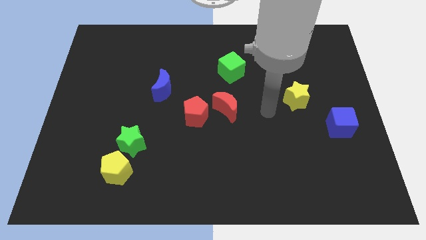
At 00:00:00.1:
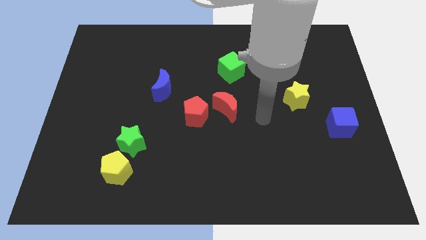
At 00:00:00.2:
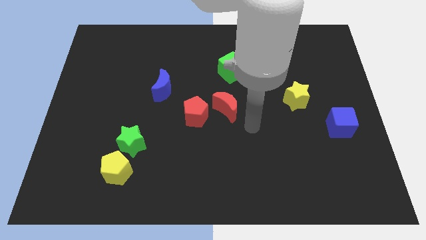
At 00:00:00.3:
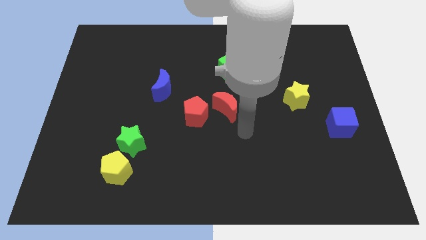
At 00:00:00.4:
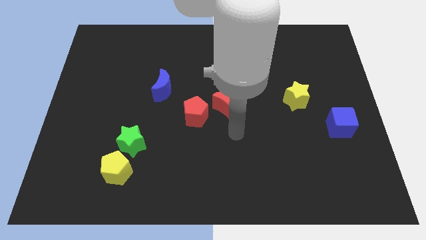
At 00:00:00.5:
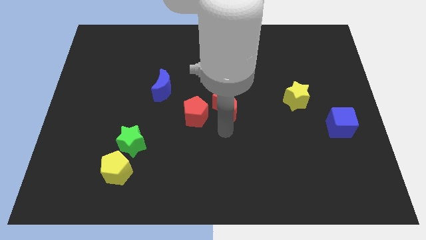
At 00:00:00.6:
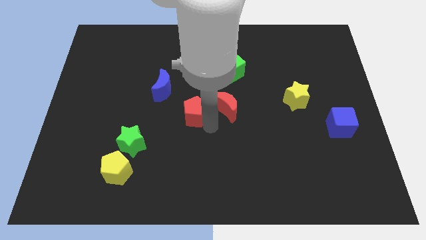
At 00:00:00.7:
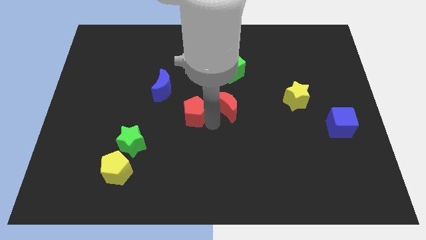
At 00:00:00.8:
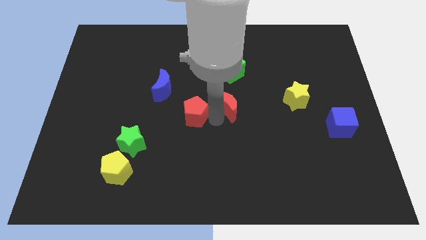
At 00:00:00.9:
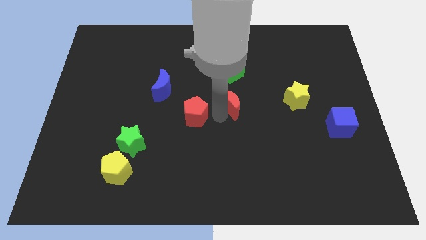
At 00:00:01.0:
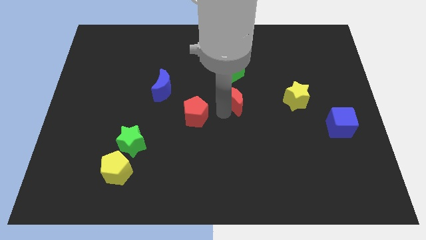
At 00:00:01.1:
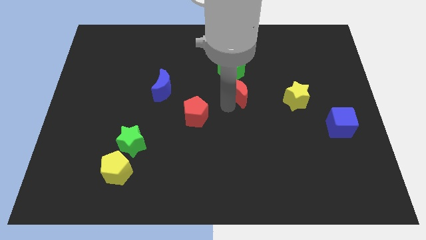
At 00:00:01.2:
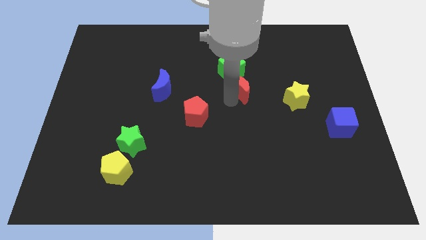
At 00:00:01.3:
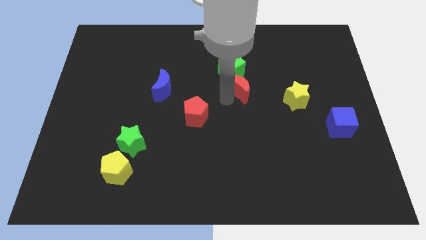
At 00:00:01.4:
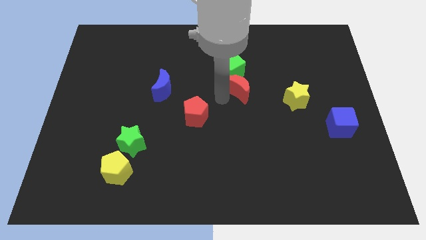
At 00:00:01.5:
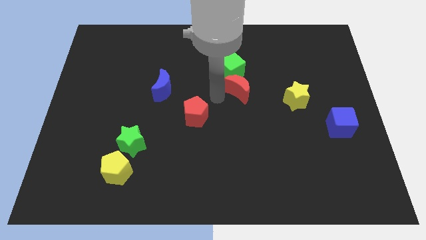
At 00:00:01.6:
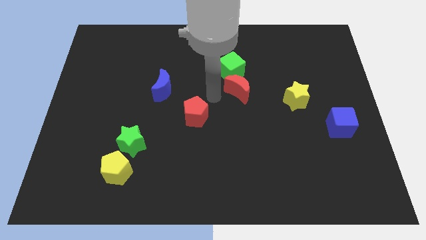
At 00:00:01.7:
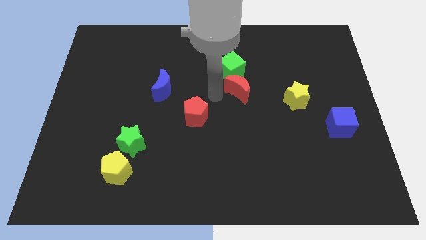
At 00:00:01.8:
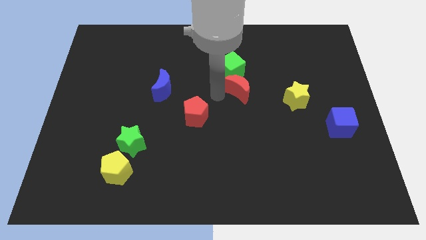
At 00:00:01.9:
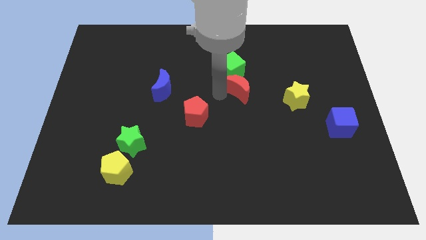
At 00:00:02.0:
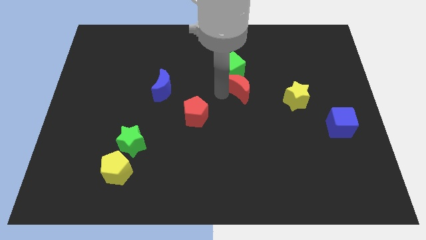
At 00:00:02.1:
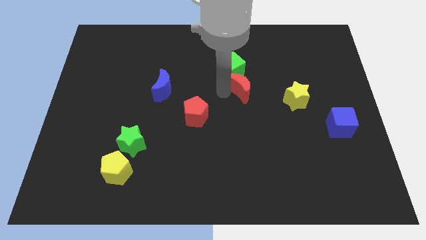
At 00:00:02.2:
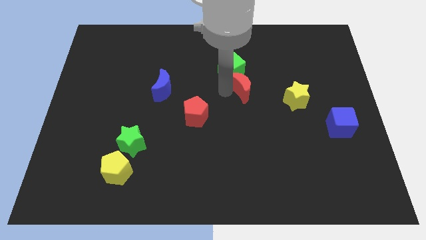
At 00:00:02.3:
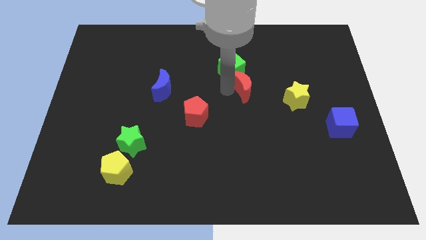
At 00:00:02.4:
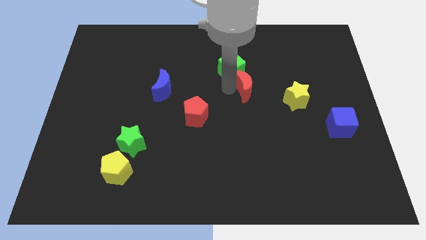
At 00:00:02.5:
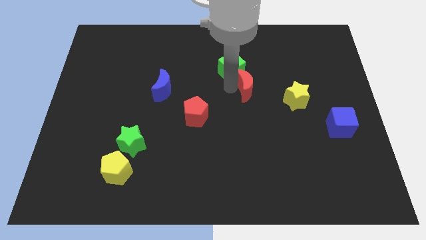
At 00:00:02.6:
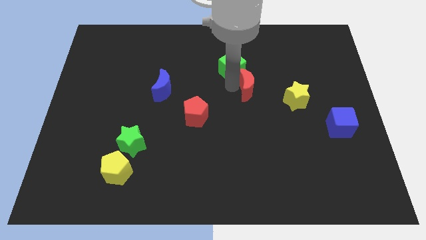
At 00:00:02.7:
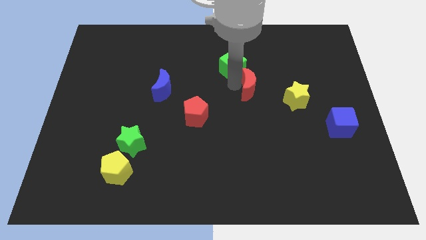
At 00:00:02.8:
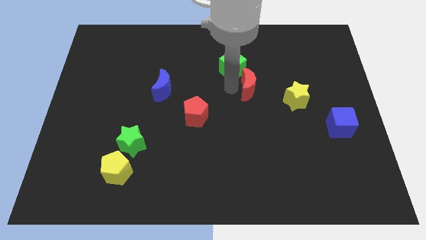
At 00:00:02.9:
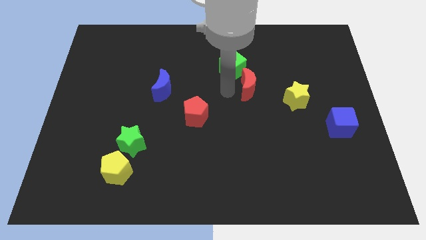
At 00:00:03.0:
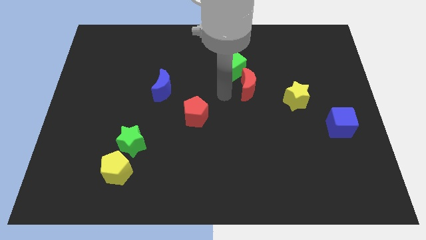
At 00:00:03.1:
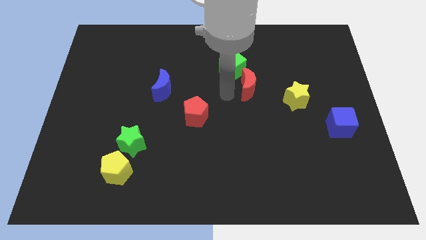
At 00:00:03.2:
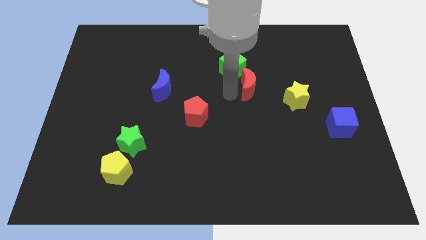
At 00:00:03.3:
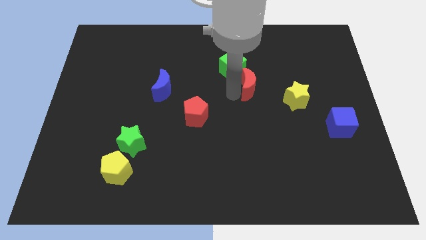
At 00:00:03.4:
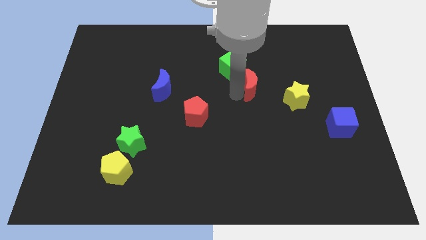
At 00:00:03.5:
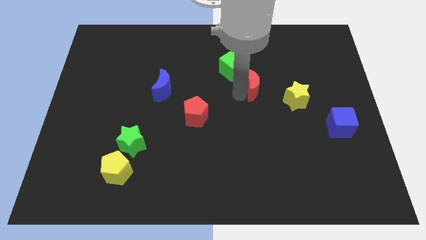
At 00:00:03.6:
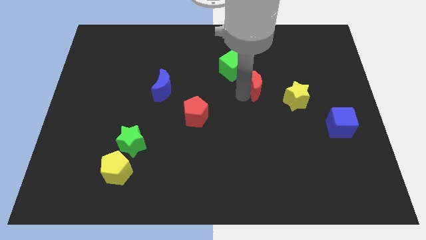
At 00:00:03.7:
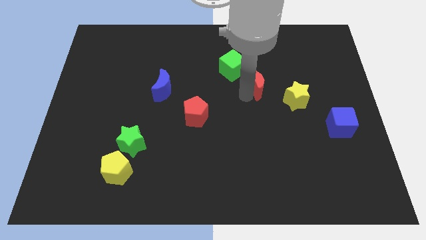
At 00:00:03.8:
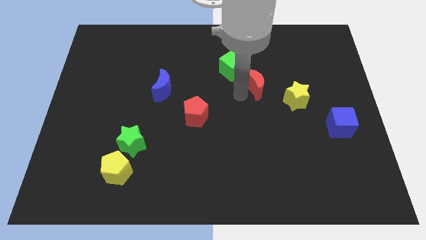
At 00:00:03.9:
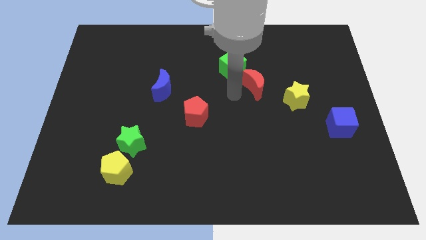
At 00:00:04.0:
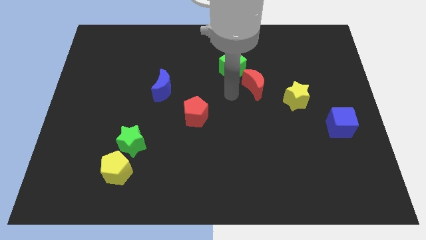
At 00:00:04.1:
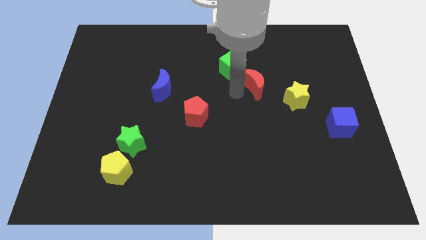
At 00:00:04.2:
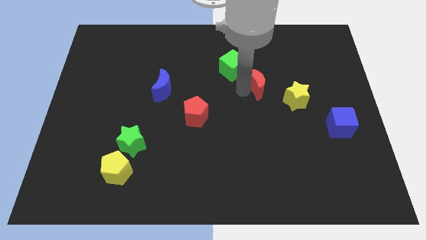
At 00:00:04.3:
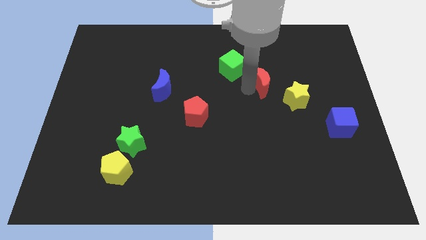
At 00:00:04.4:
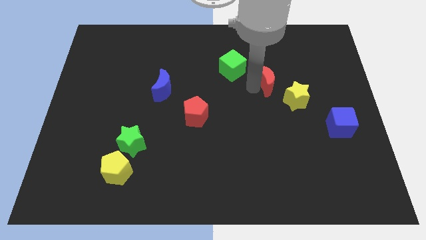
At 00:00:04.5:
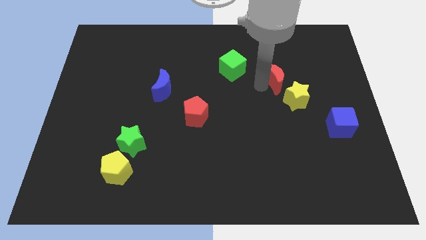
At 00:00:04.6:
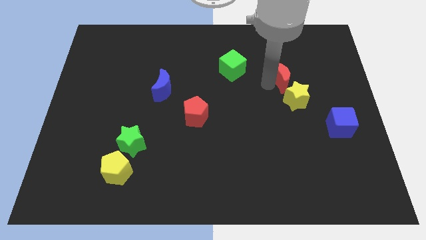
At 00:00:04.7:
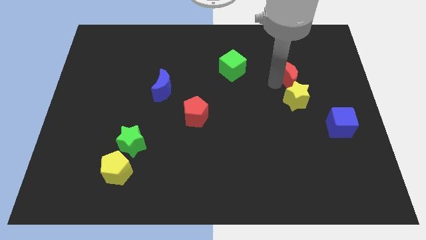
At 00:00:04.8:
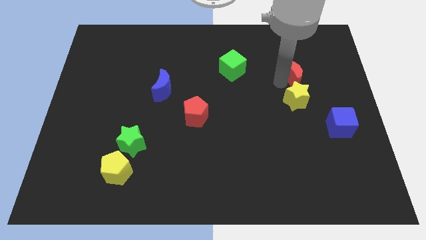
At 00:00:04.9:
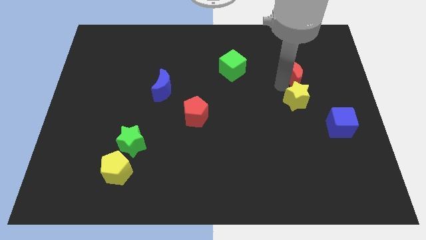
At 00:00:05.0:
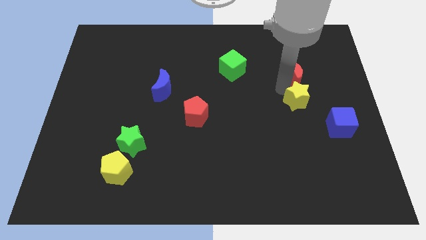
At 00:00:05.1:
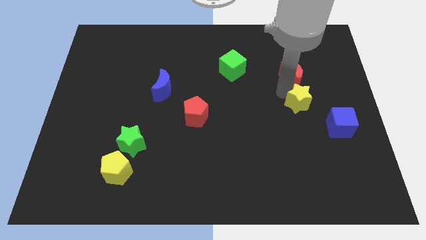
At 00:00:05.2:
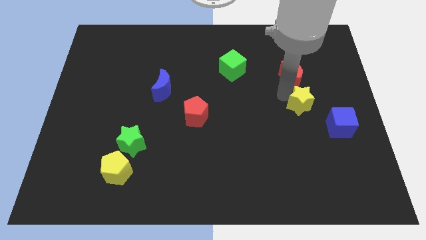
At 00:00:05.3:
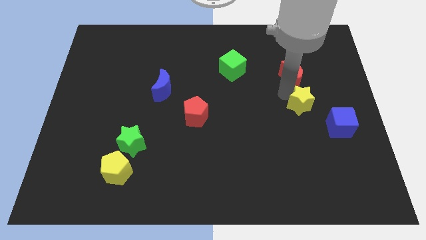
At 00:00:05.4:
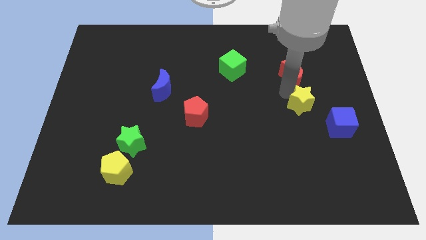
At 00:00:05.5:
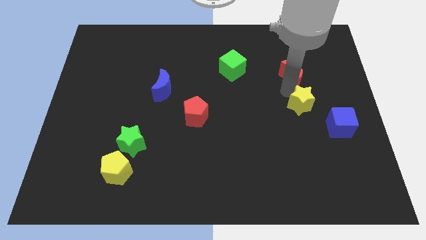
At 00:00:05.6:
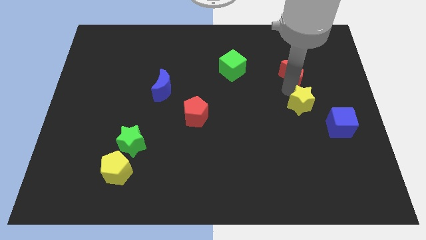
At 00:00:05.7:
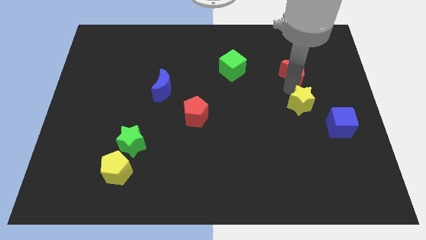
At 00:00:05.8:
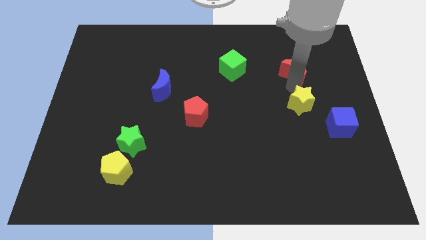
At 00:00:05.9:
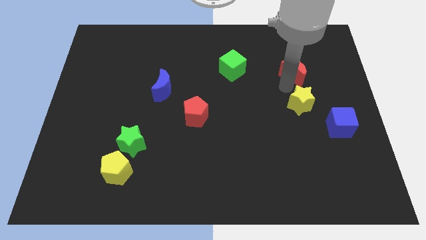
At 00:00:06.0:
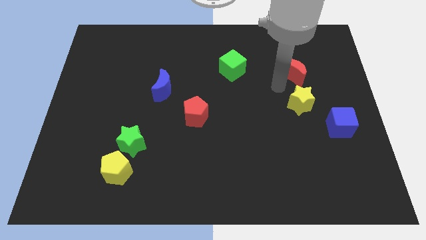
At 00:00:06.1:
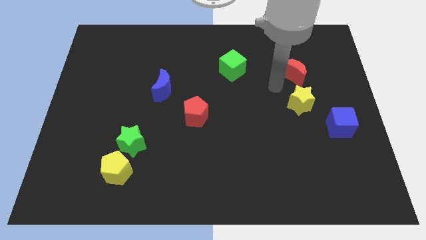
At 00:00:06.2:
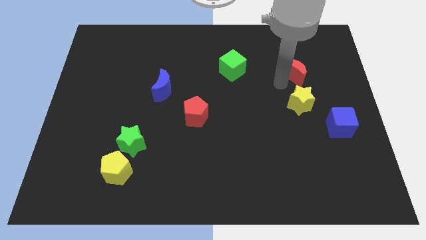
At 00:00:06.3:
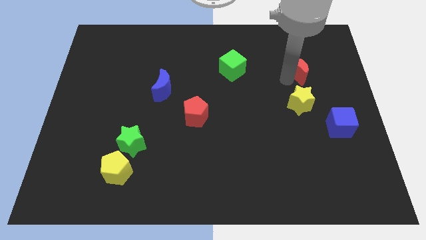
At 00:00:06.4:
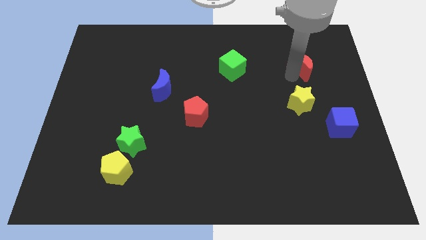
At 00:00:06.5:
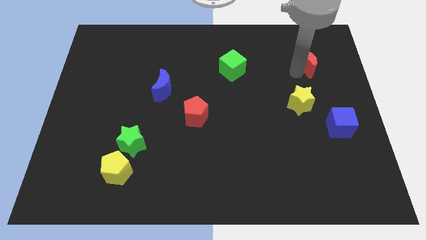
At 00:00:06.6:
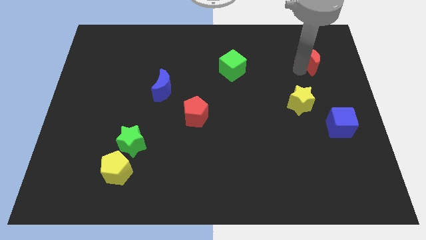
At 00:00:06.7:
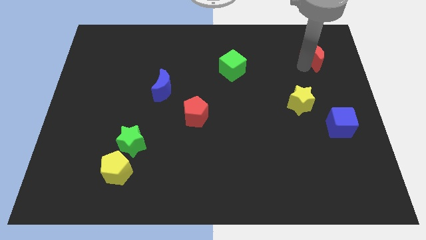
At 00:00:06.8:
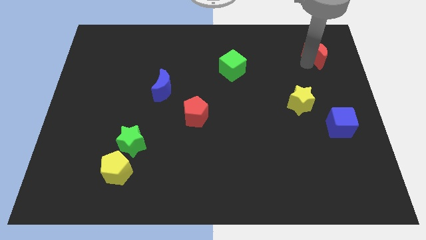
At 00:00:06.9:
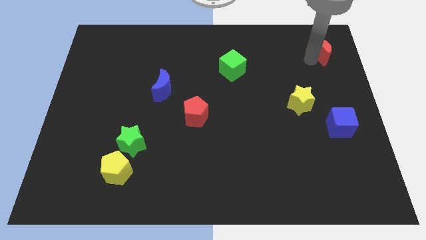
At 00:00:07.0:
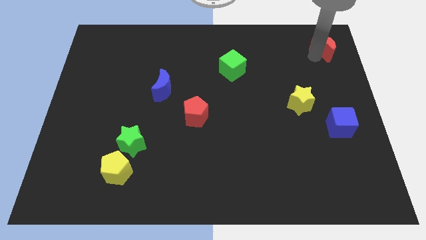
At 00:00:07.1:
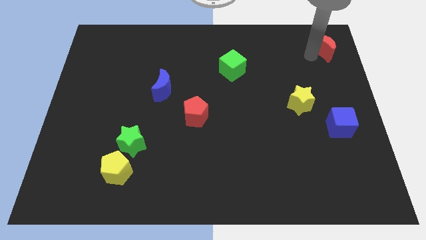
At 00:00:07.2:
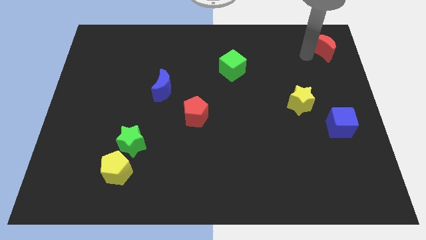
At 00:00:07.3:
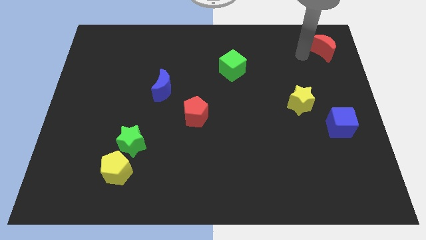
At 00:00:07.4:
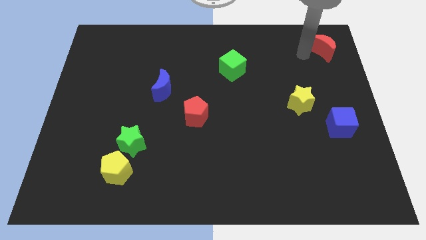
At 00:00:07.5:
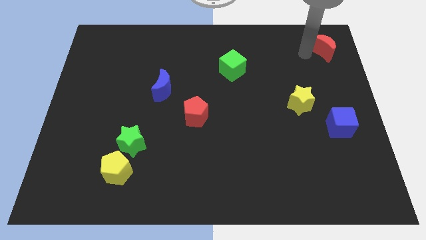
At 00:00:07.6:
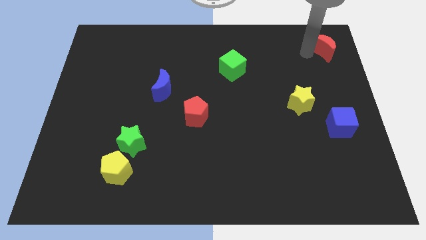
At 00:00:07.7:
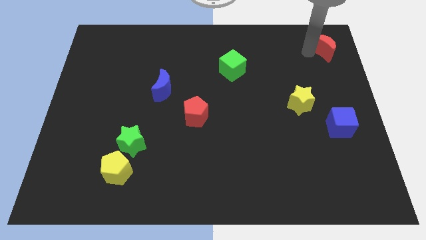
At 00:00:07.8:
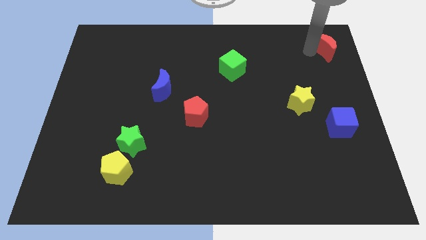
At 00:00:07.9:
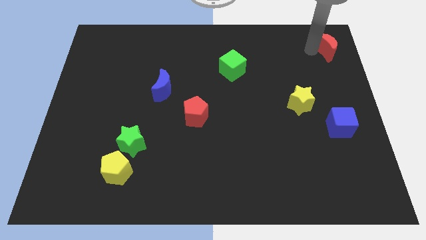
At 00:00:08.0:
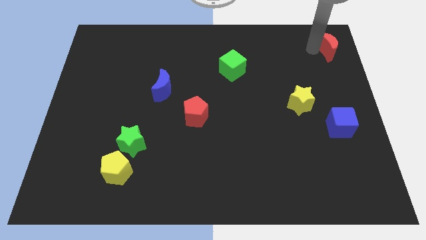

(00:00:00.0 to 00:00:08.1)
move the red moon to the top right corner
